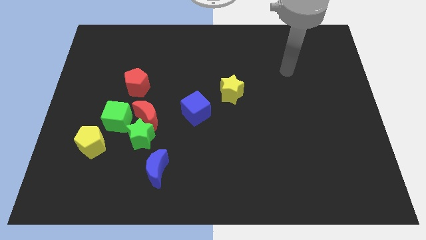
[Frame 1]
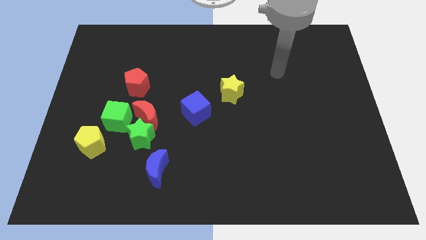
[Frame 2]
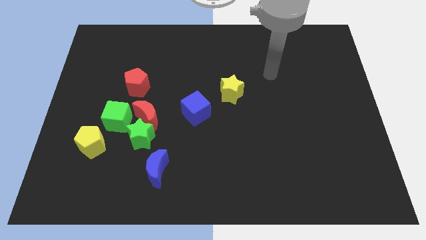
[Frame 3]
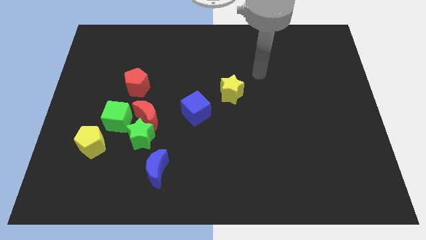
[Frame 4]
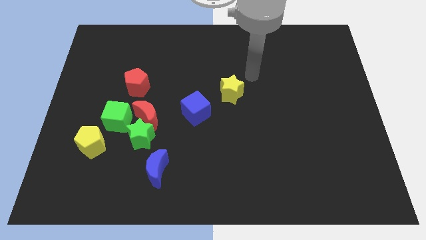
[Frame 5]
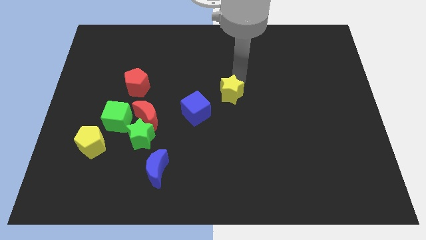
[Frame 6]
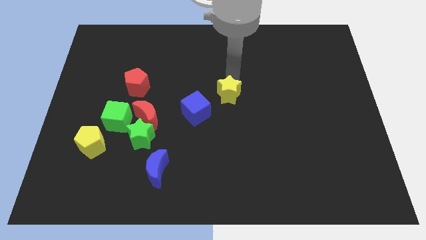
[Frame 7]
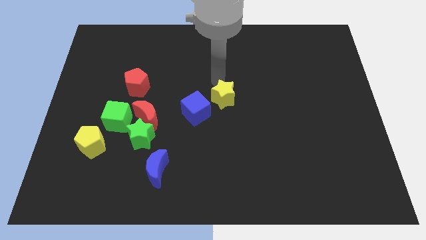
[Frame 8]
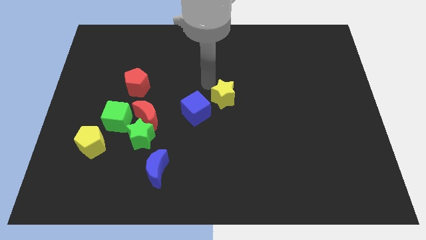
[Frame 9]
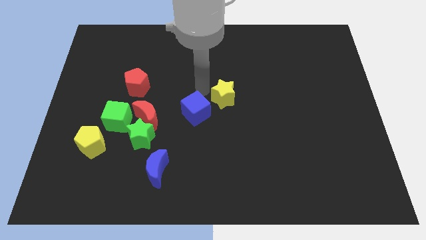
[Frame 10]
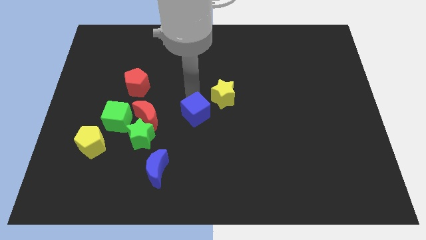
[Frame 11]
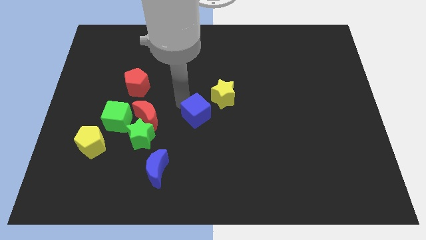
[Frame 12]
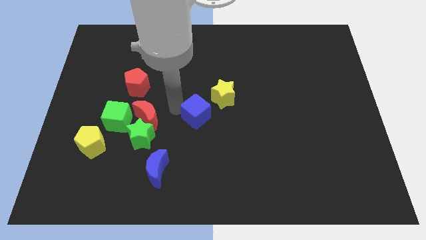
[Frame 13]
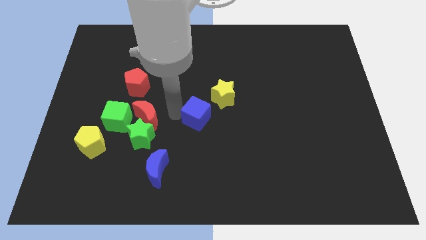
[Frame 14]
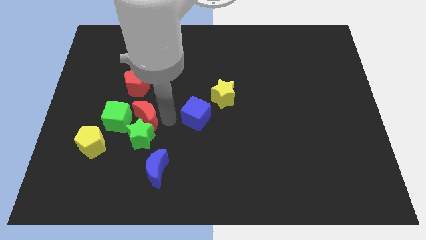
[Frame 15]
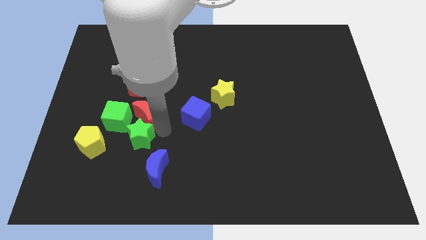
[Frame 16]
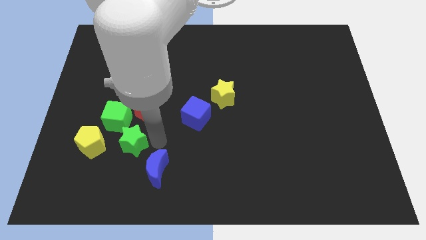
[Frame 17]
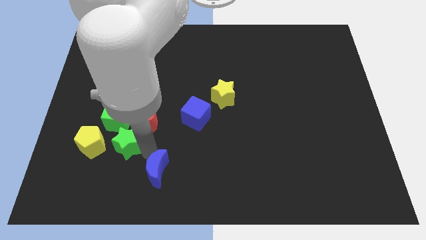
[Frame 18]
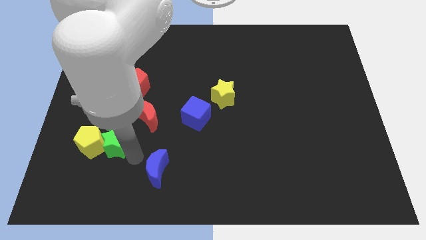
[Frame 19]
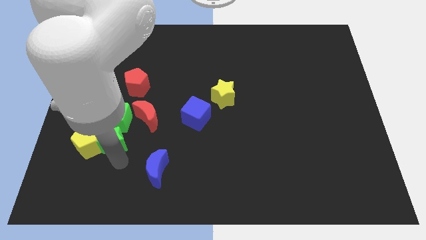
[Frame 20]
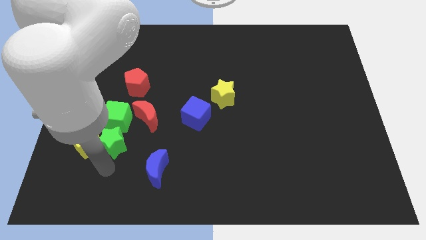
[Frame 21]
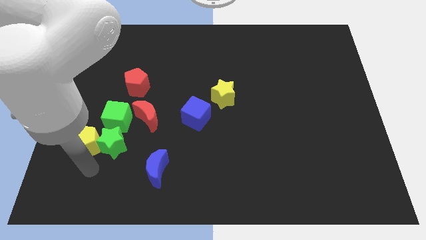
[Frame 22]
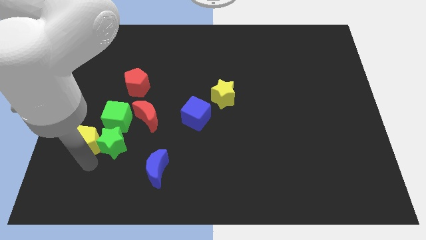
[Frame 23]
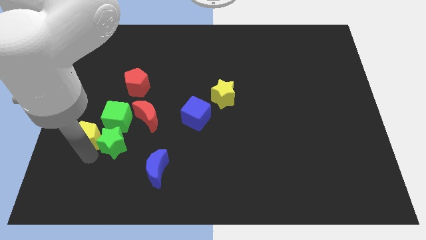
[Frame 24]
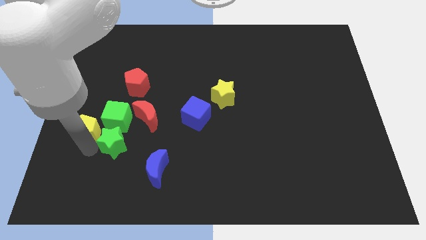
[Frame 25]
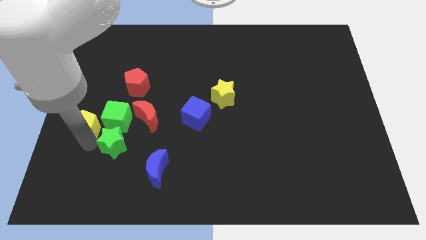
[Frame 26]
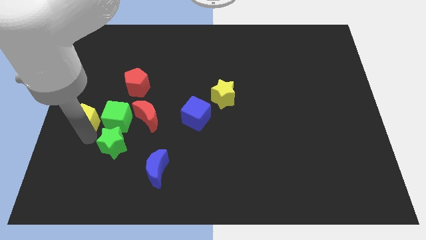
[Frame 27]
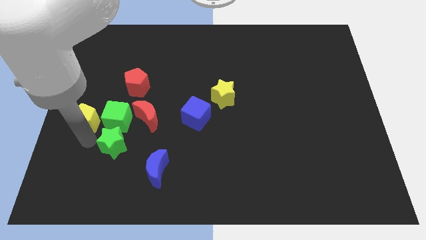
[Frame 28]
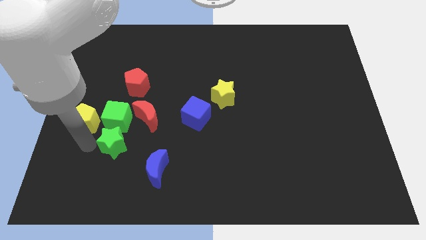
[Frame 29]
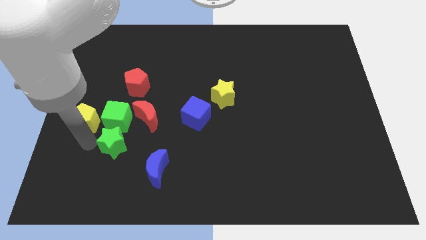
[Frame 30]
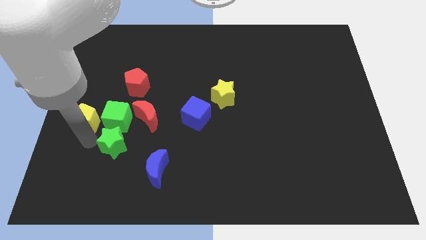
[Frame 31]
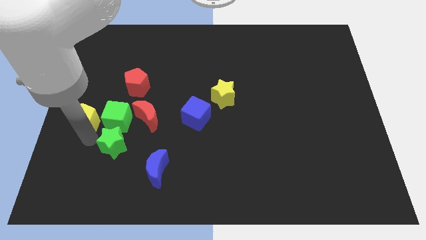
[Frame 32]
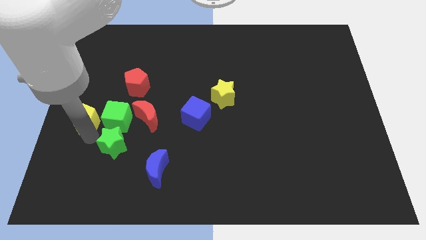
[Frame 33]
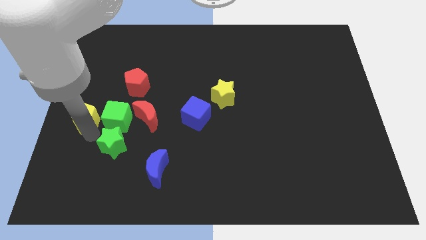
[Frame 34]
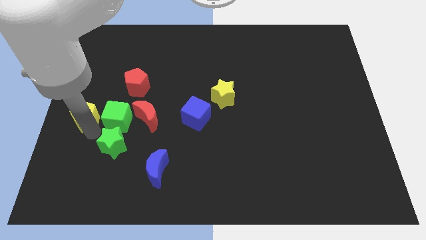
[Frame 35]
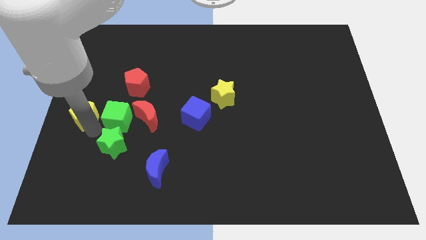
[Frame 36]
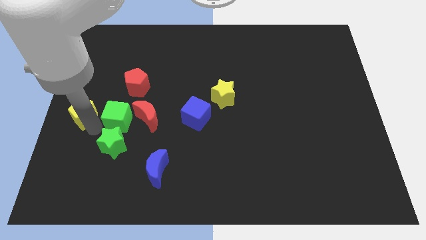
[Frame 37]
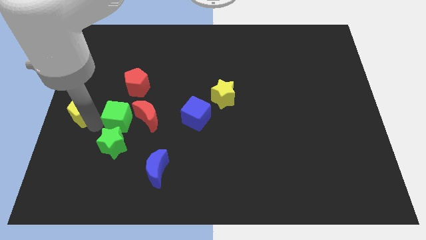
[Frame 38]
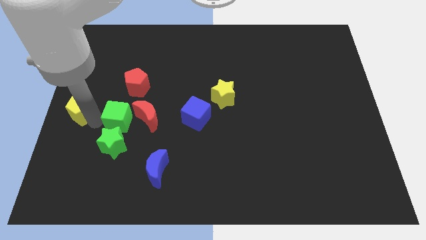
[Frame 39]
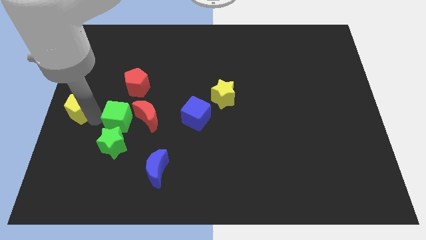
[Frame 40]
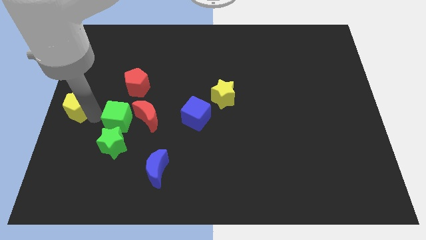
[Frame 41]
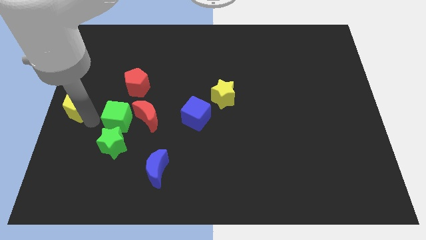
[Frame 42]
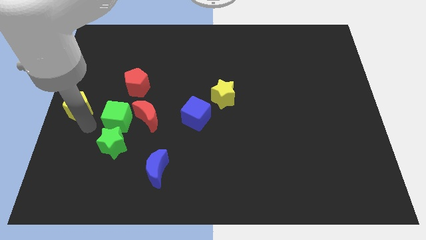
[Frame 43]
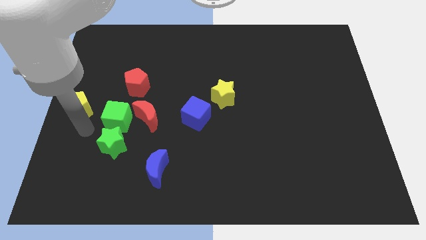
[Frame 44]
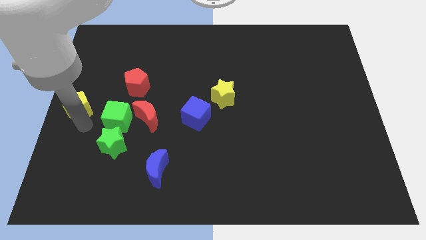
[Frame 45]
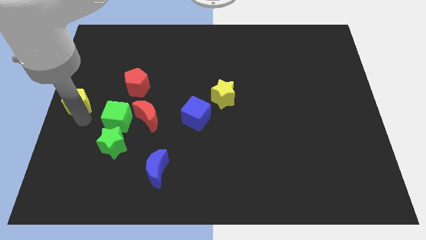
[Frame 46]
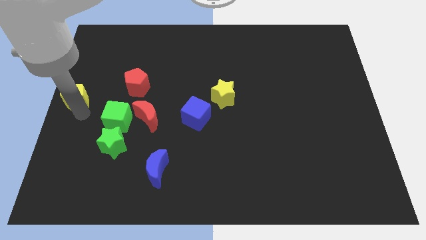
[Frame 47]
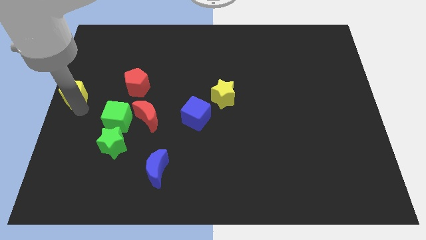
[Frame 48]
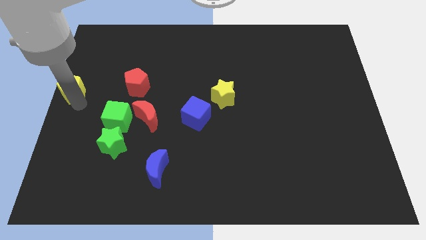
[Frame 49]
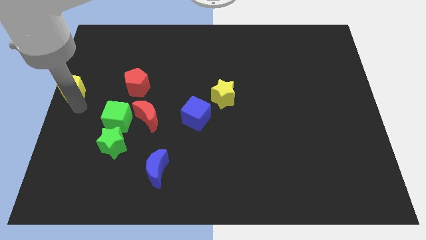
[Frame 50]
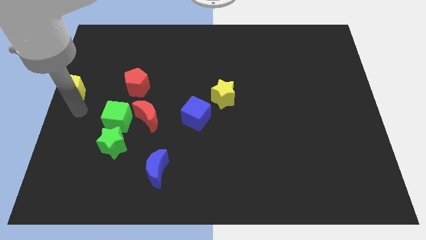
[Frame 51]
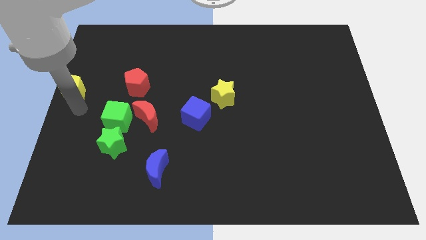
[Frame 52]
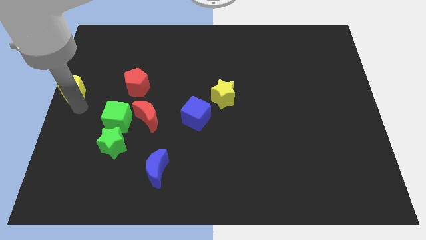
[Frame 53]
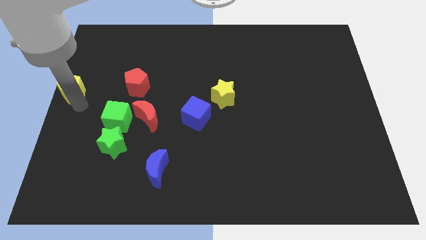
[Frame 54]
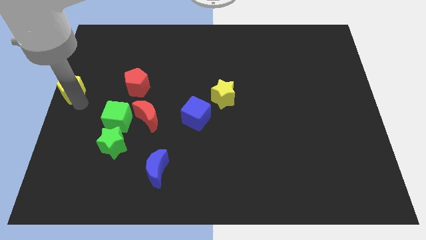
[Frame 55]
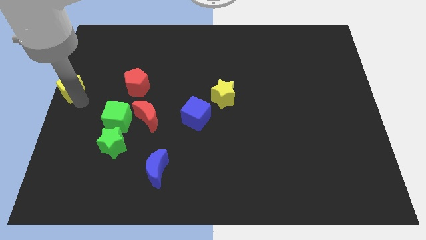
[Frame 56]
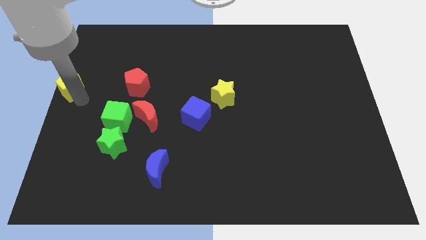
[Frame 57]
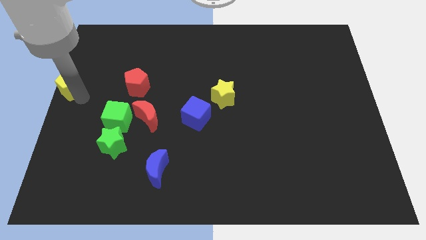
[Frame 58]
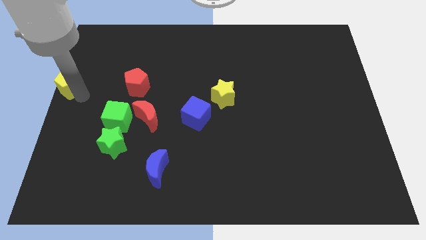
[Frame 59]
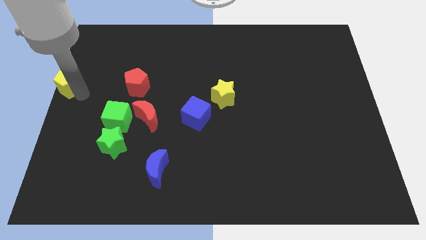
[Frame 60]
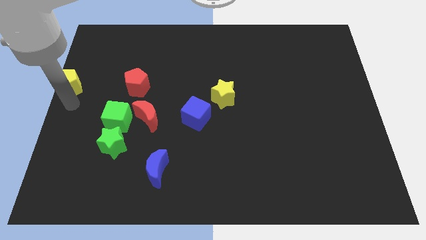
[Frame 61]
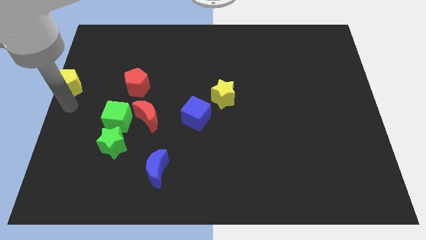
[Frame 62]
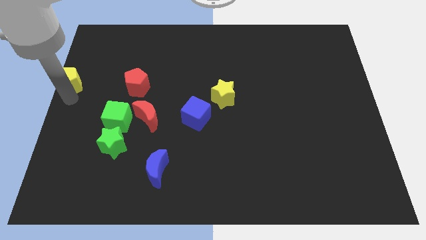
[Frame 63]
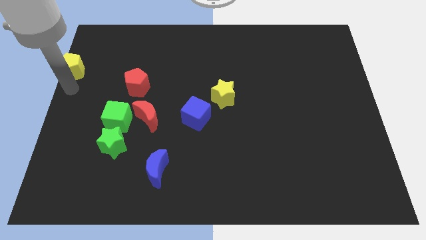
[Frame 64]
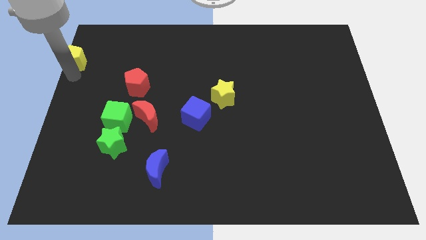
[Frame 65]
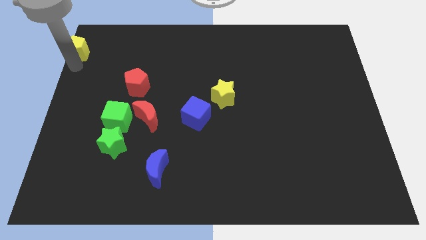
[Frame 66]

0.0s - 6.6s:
slide the yellow pentagon to the top left of the board
